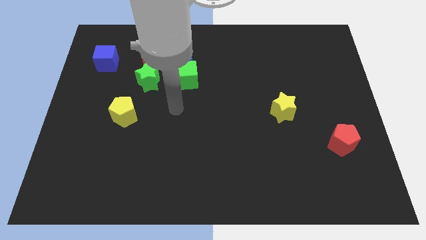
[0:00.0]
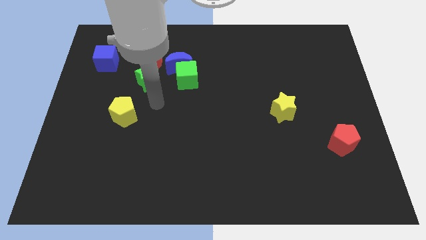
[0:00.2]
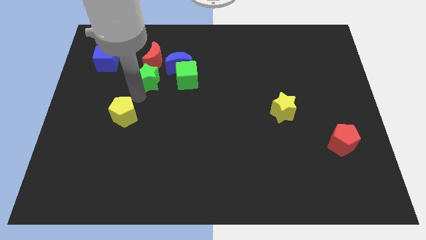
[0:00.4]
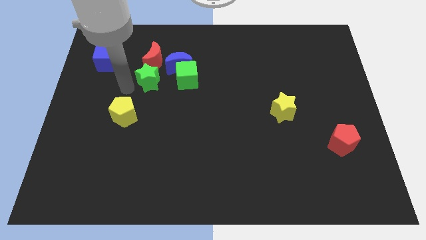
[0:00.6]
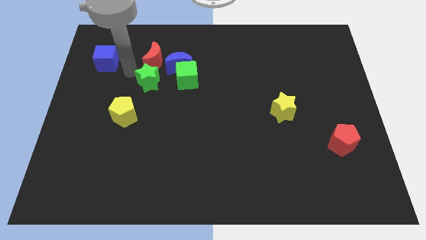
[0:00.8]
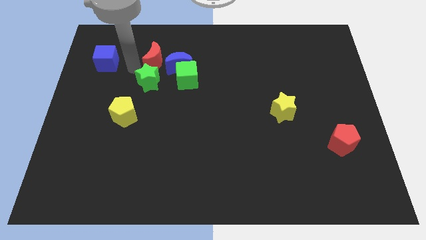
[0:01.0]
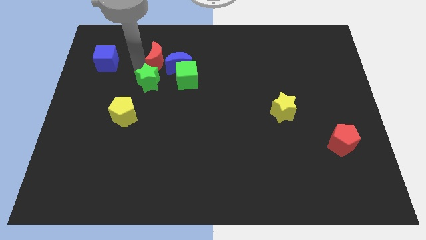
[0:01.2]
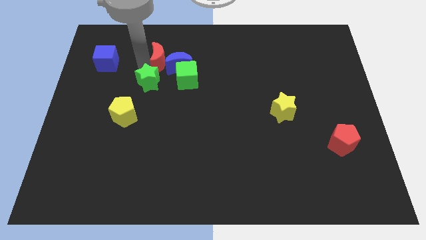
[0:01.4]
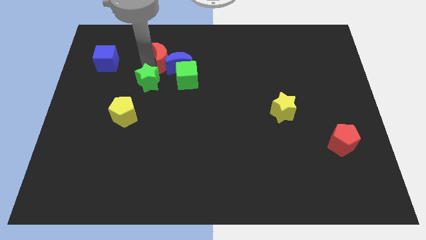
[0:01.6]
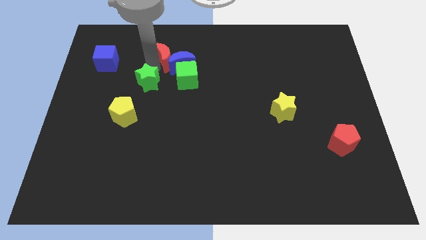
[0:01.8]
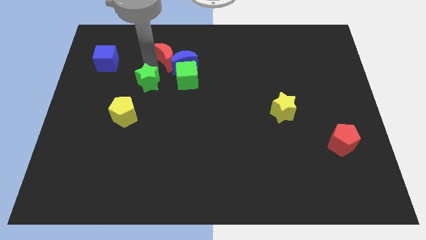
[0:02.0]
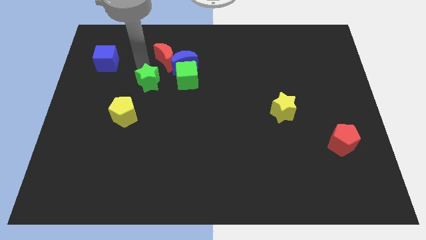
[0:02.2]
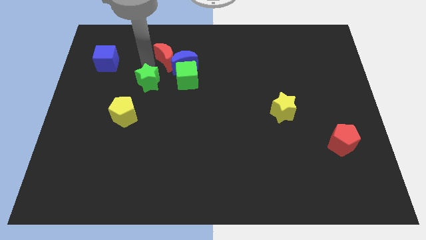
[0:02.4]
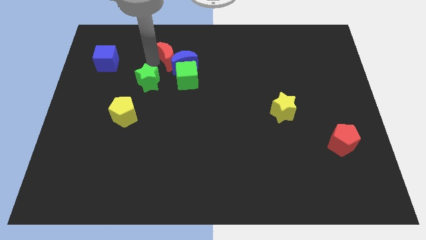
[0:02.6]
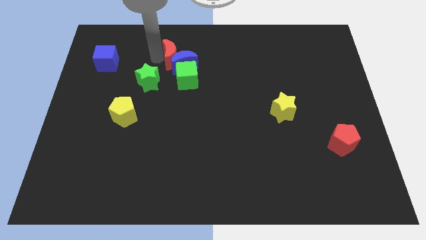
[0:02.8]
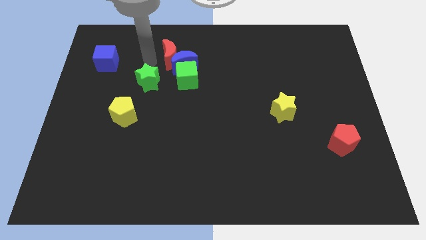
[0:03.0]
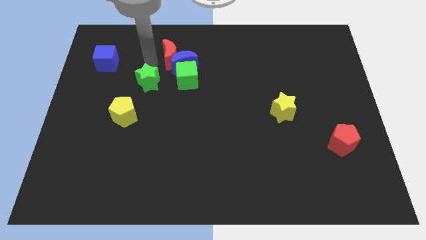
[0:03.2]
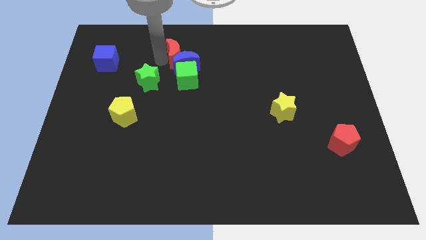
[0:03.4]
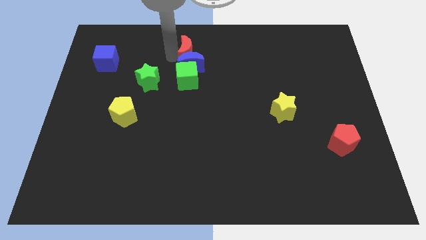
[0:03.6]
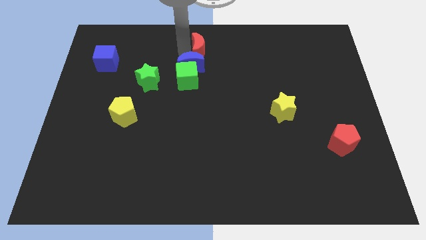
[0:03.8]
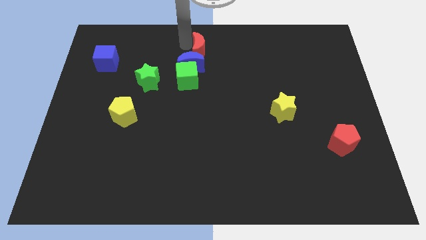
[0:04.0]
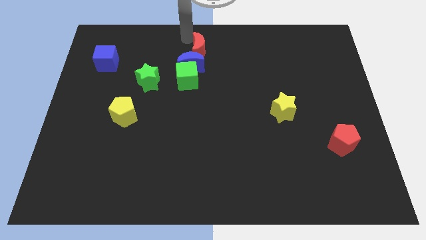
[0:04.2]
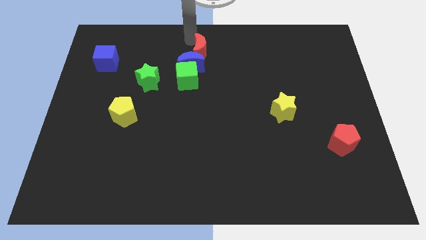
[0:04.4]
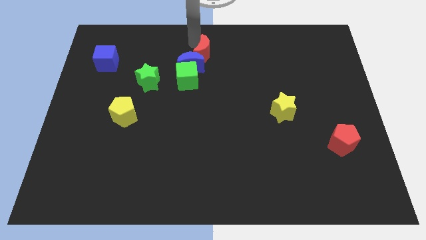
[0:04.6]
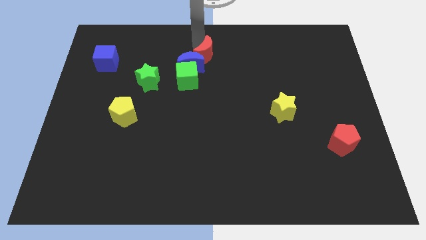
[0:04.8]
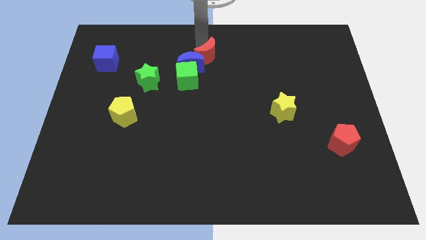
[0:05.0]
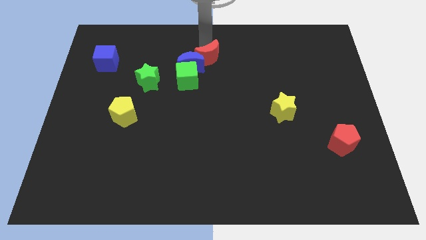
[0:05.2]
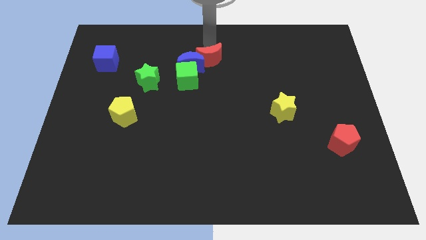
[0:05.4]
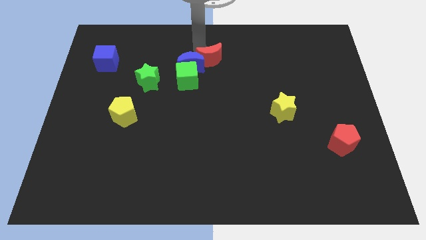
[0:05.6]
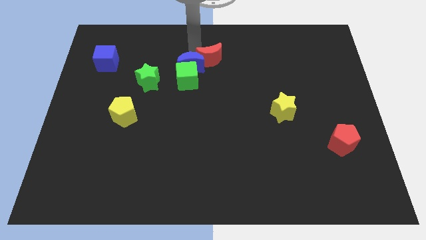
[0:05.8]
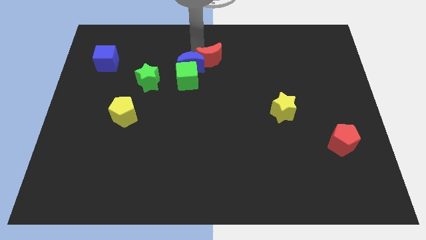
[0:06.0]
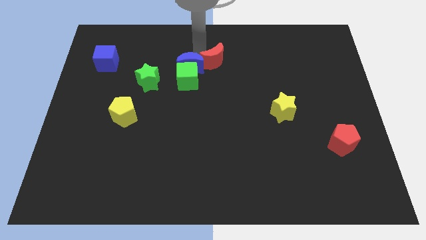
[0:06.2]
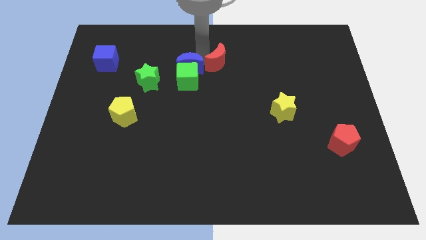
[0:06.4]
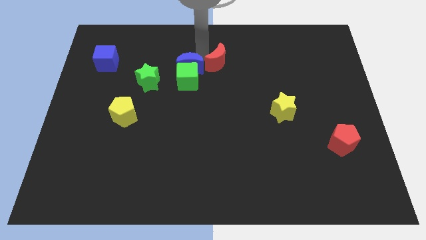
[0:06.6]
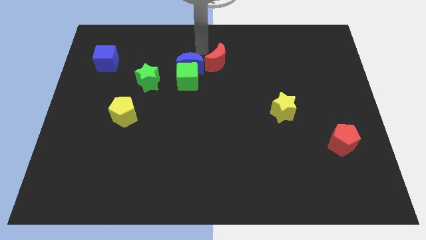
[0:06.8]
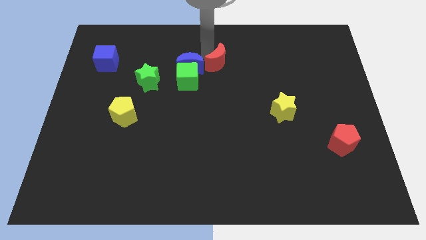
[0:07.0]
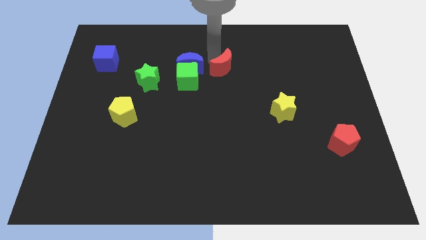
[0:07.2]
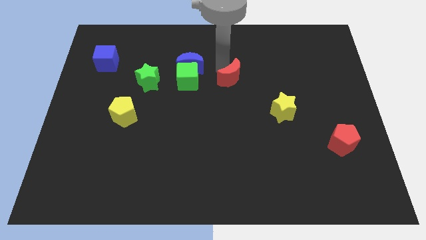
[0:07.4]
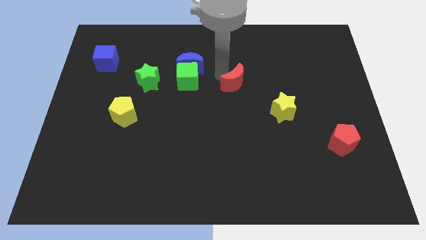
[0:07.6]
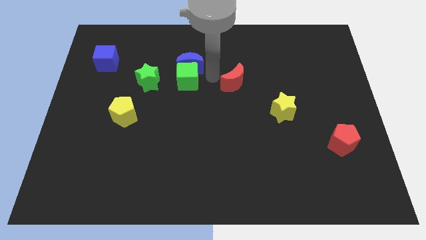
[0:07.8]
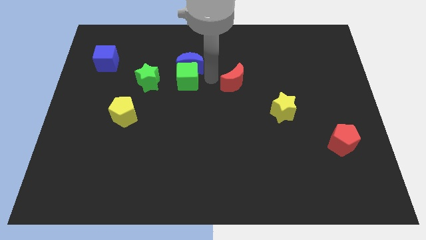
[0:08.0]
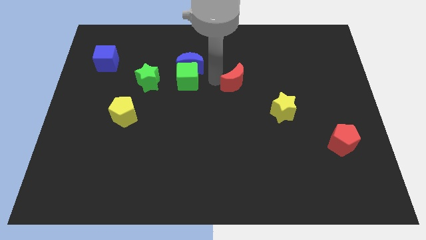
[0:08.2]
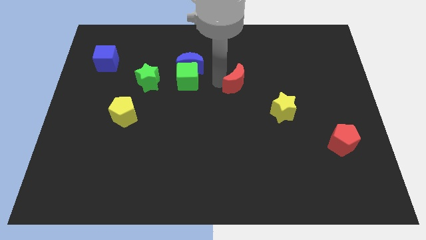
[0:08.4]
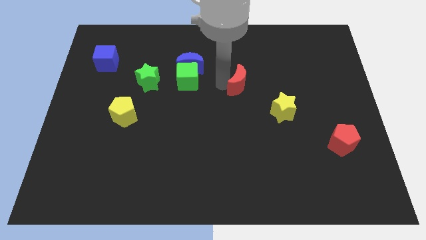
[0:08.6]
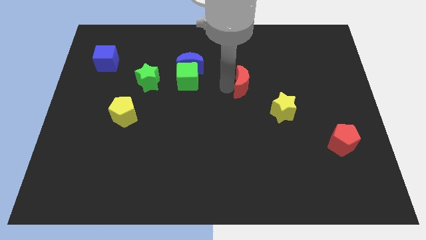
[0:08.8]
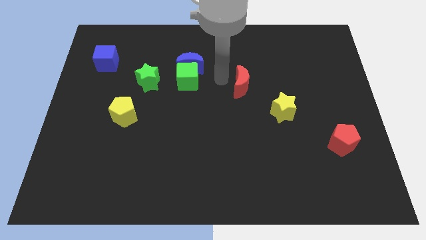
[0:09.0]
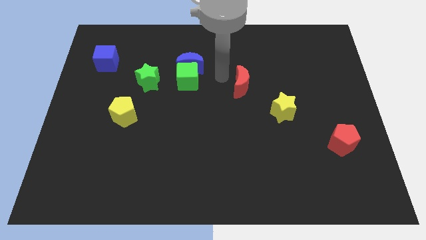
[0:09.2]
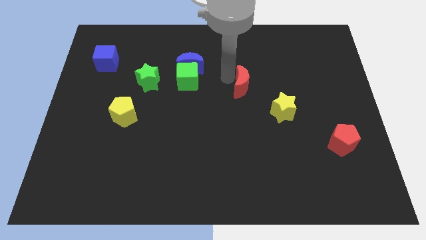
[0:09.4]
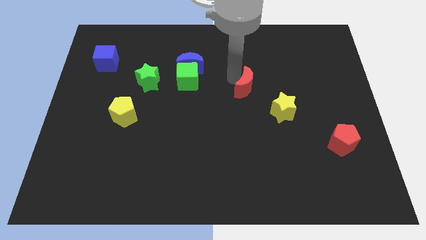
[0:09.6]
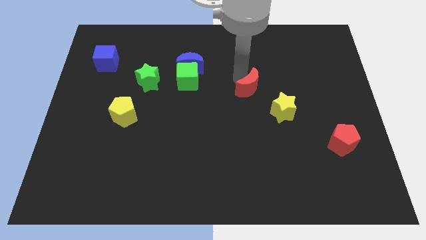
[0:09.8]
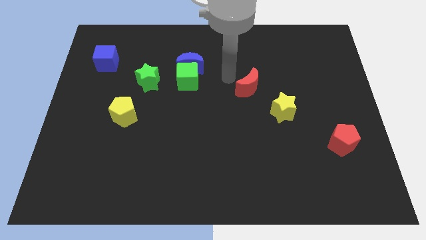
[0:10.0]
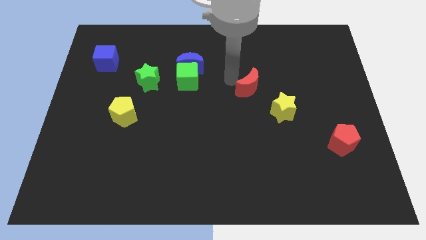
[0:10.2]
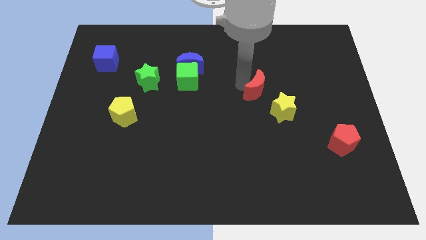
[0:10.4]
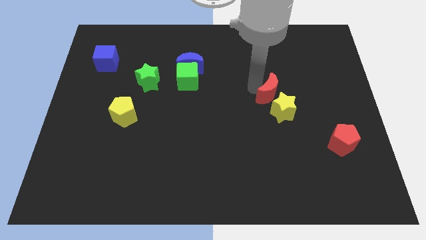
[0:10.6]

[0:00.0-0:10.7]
slide the red moon to the yellow star

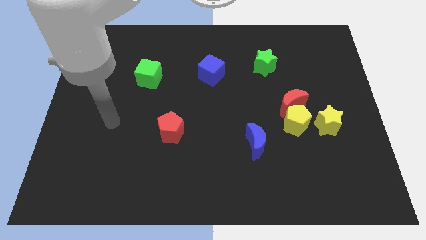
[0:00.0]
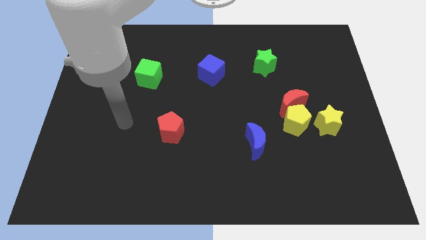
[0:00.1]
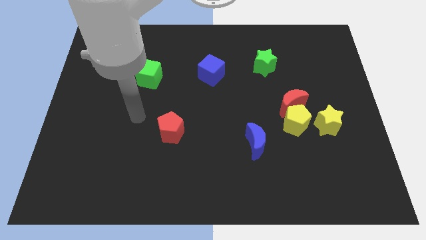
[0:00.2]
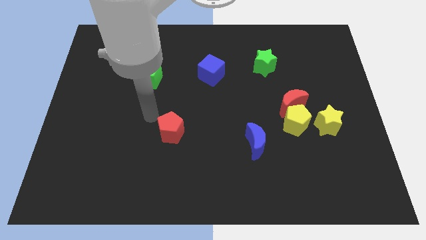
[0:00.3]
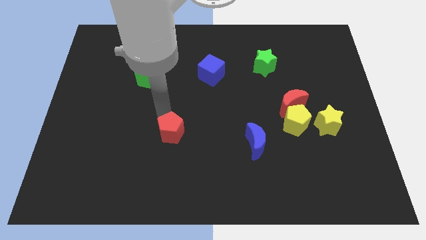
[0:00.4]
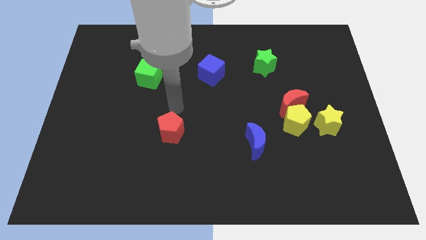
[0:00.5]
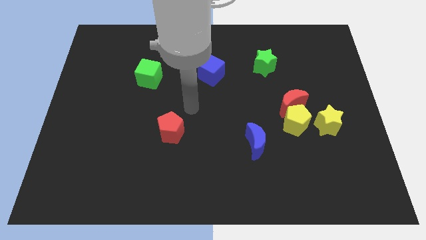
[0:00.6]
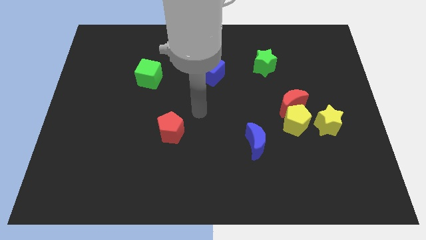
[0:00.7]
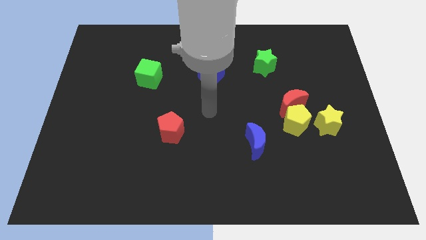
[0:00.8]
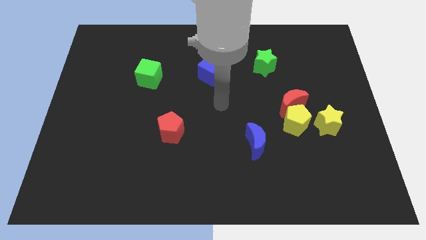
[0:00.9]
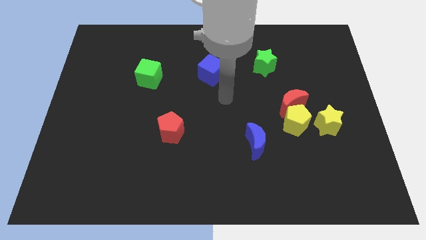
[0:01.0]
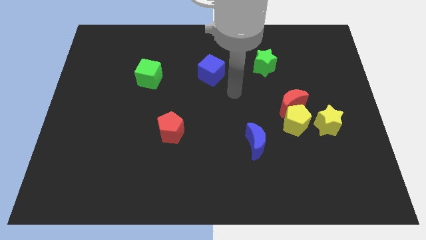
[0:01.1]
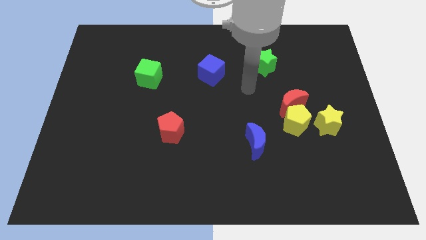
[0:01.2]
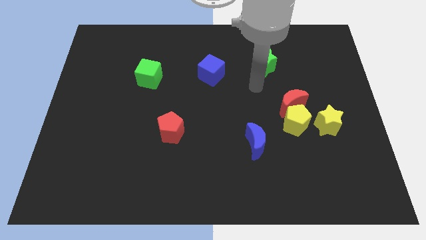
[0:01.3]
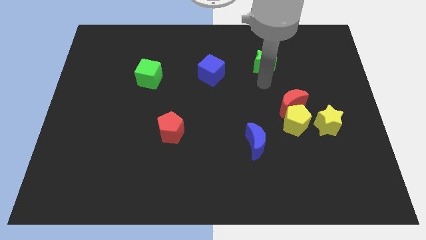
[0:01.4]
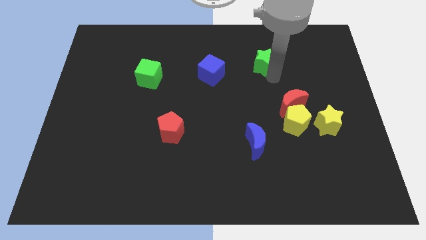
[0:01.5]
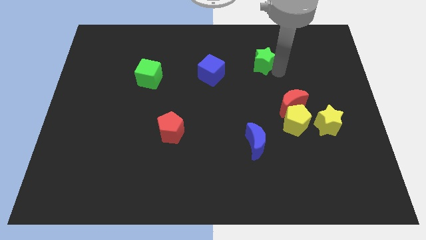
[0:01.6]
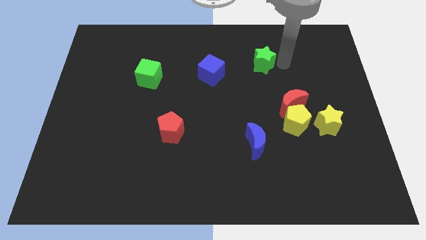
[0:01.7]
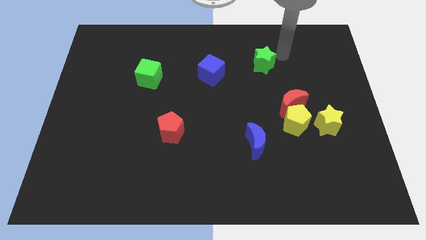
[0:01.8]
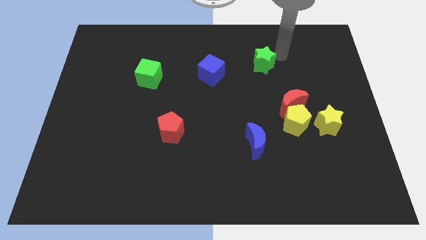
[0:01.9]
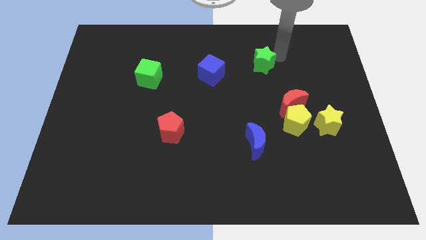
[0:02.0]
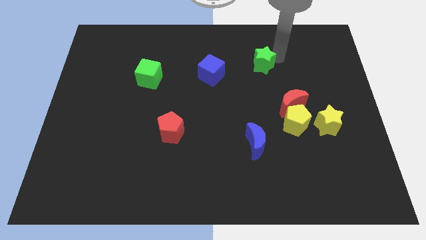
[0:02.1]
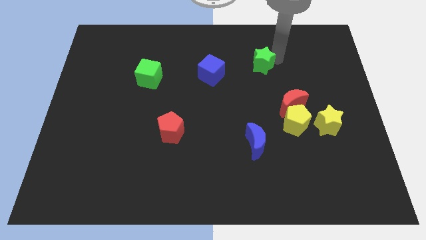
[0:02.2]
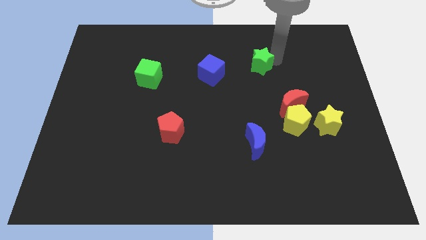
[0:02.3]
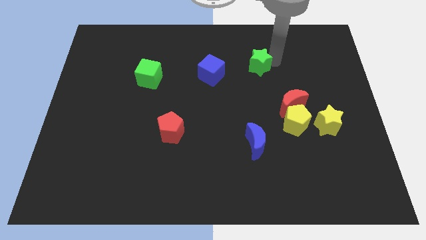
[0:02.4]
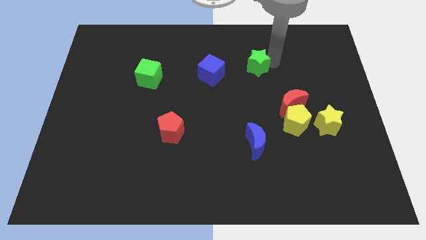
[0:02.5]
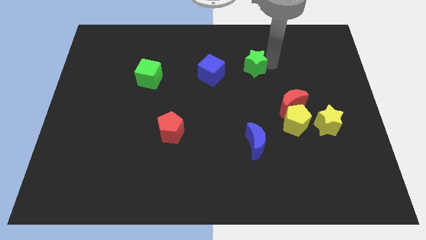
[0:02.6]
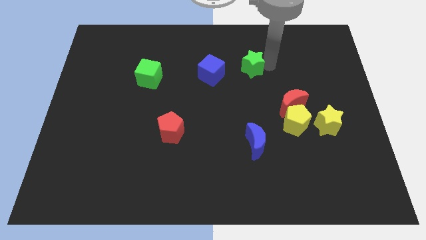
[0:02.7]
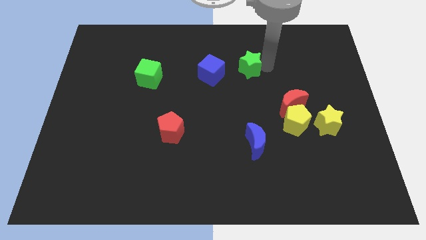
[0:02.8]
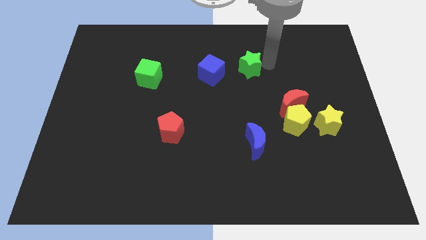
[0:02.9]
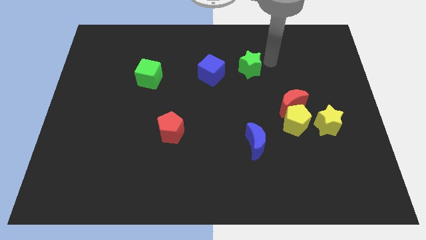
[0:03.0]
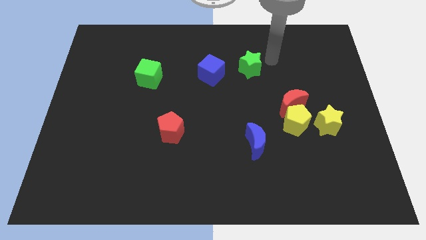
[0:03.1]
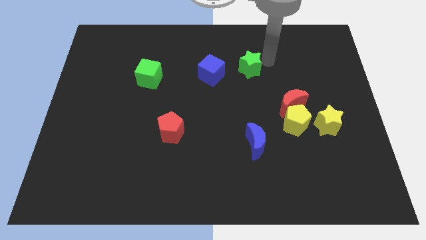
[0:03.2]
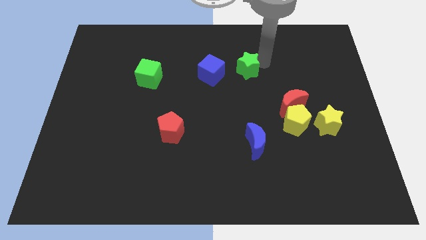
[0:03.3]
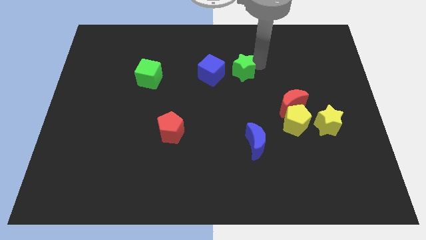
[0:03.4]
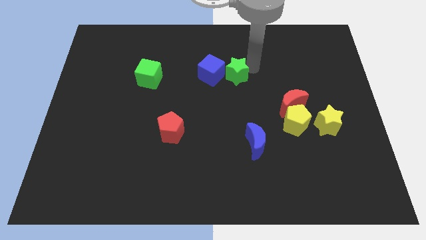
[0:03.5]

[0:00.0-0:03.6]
put the green star close to the blue cube
